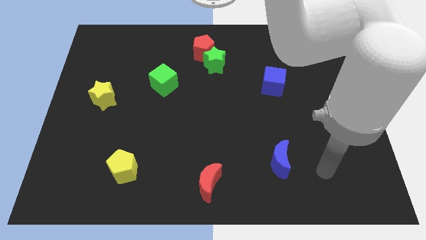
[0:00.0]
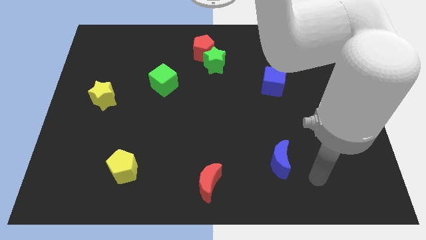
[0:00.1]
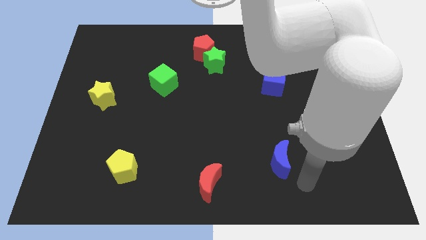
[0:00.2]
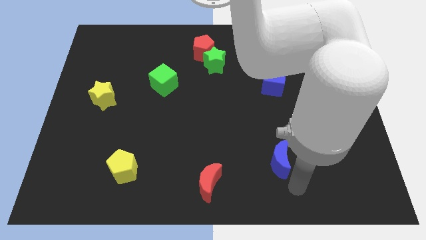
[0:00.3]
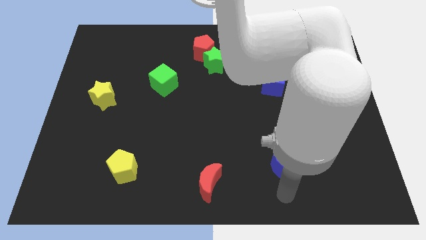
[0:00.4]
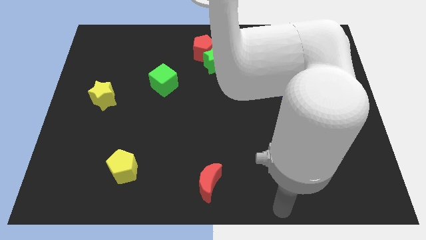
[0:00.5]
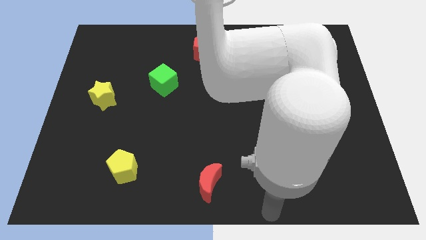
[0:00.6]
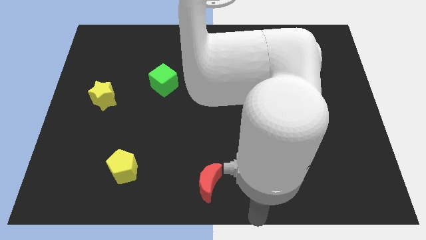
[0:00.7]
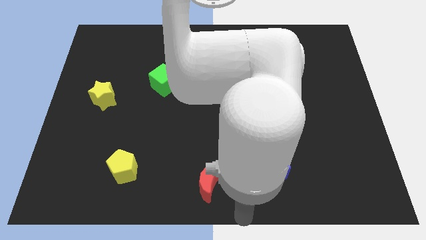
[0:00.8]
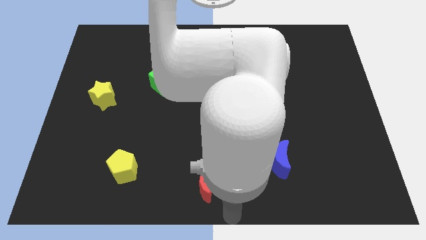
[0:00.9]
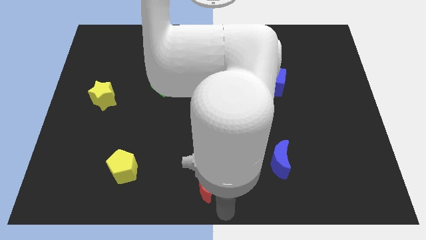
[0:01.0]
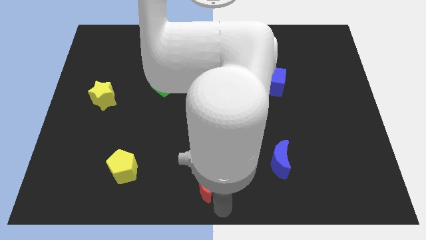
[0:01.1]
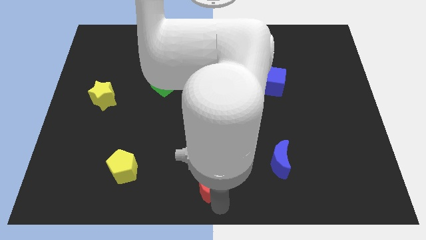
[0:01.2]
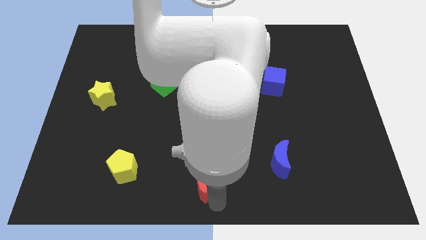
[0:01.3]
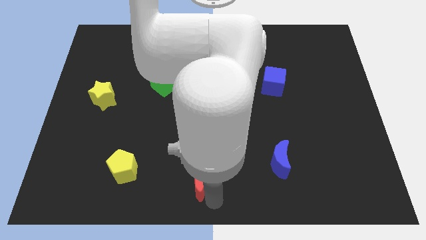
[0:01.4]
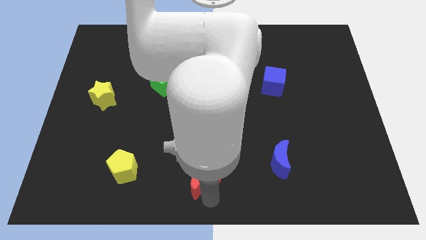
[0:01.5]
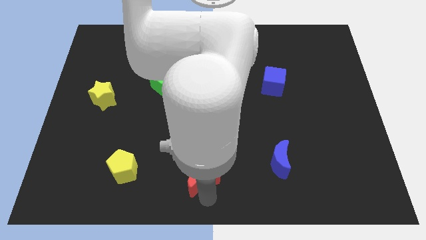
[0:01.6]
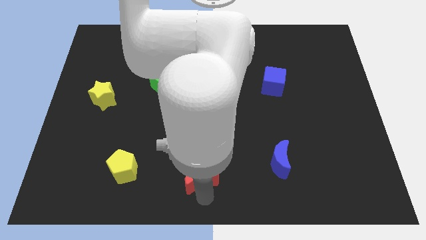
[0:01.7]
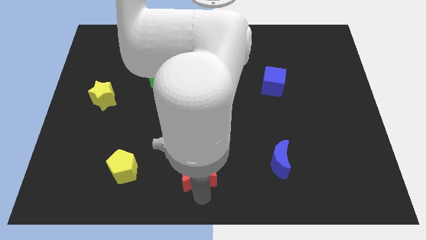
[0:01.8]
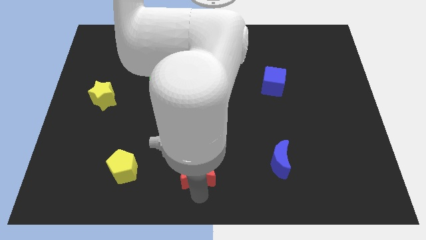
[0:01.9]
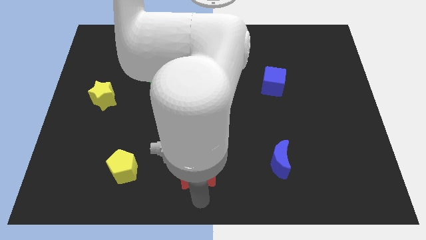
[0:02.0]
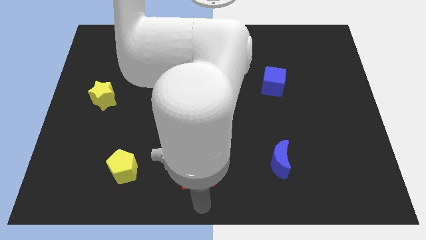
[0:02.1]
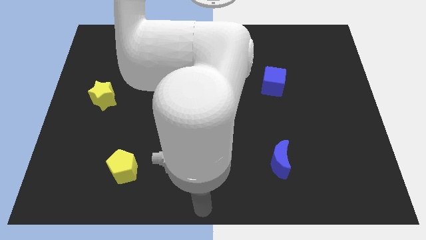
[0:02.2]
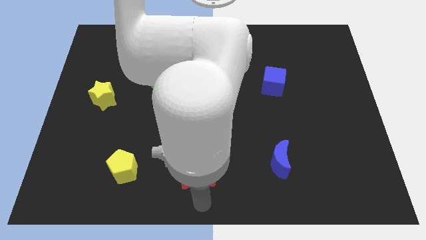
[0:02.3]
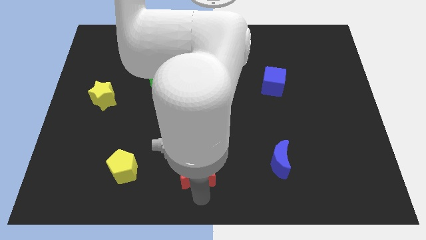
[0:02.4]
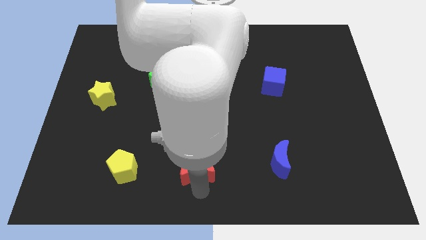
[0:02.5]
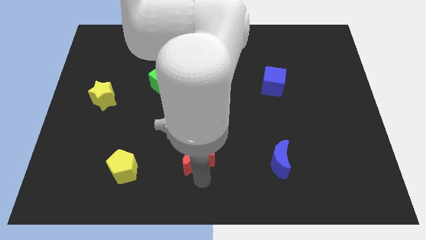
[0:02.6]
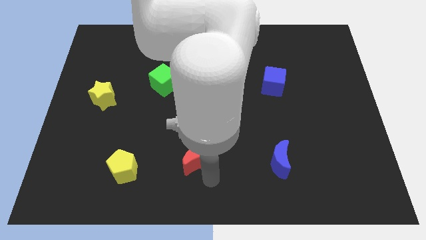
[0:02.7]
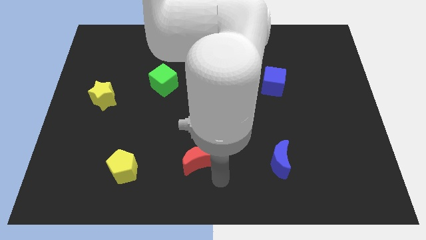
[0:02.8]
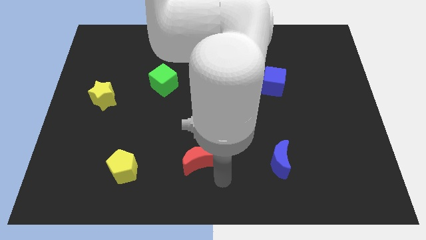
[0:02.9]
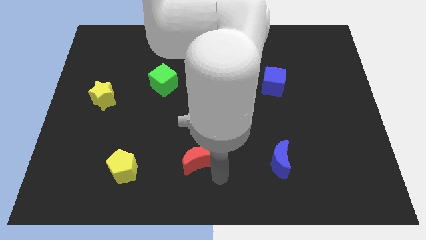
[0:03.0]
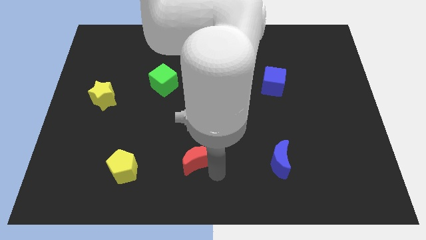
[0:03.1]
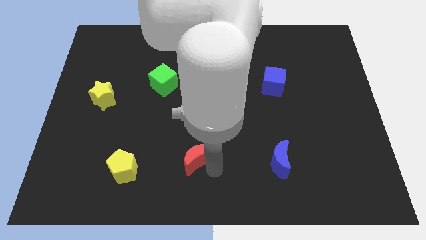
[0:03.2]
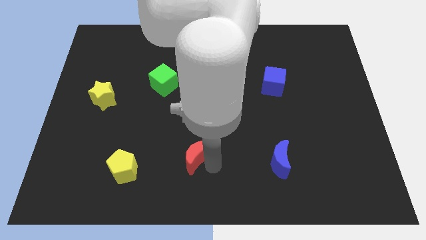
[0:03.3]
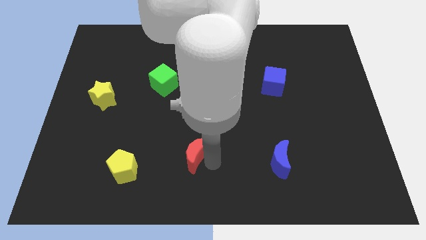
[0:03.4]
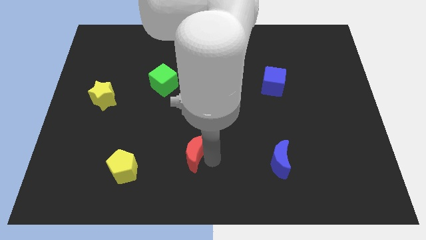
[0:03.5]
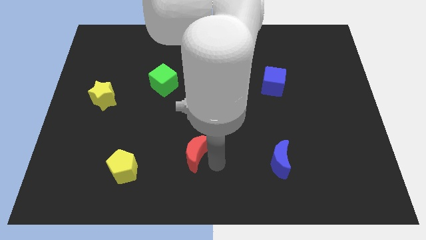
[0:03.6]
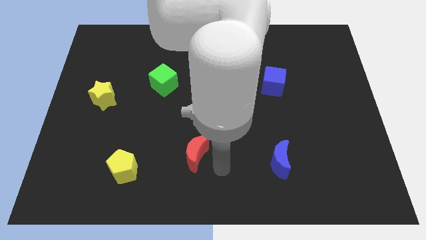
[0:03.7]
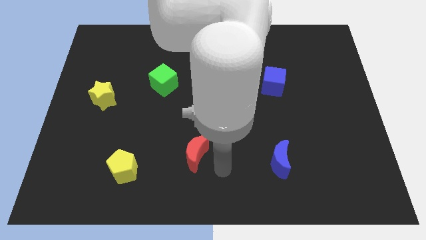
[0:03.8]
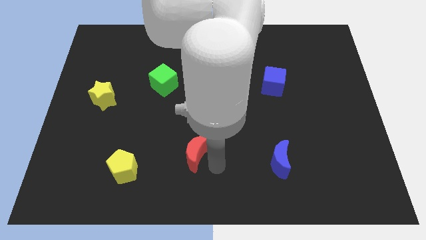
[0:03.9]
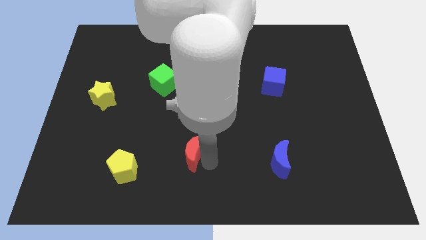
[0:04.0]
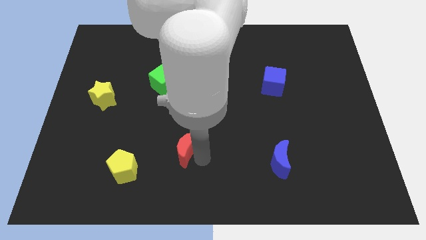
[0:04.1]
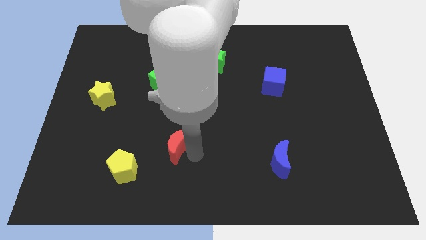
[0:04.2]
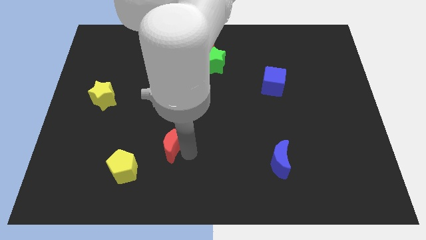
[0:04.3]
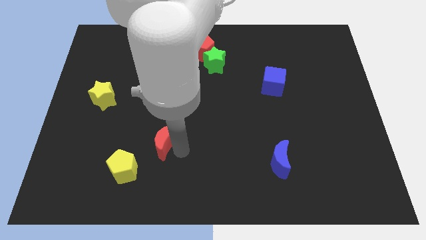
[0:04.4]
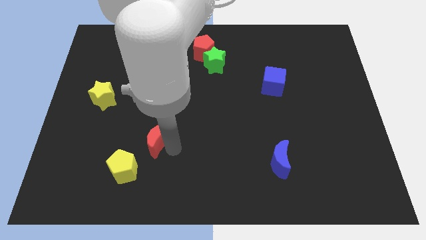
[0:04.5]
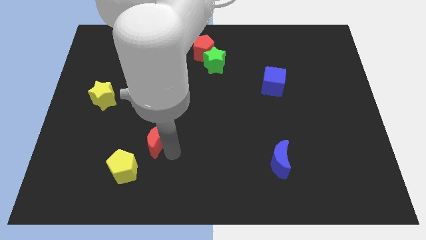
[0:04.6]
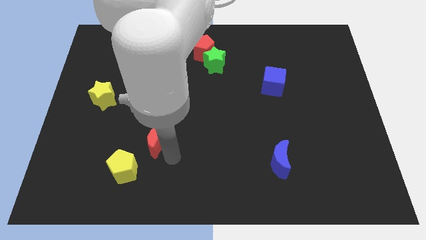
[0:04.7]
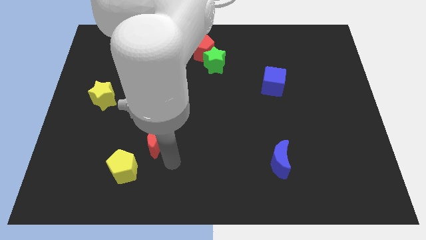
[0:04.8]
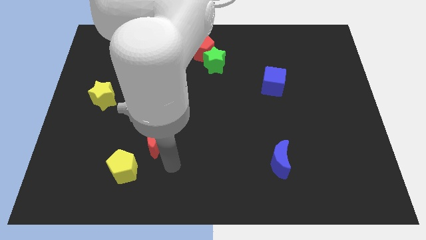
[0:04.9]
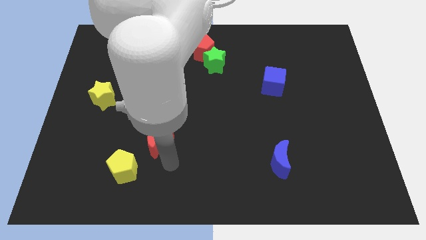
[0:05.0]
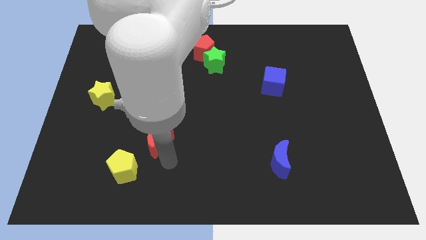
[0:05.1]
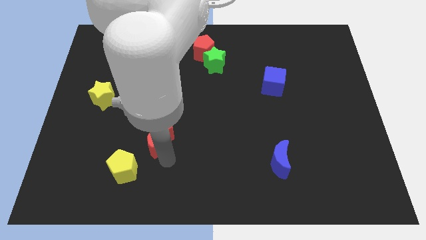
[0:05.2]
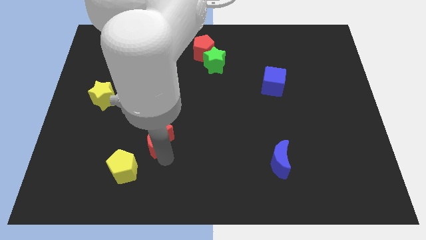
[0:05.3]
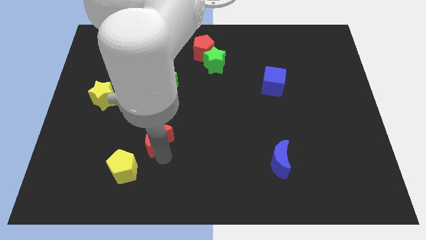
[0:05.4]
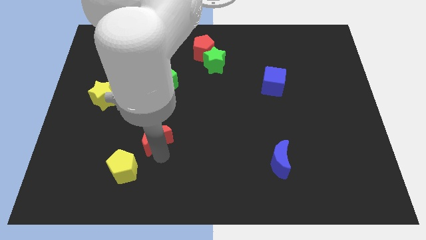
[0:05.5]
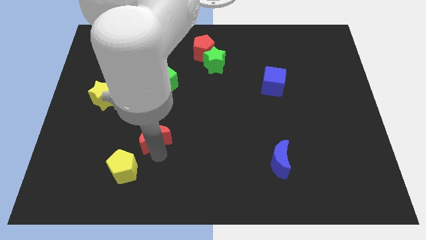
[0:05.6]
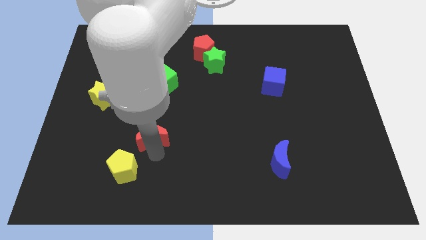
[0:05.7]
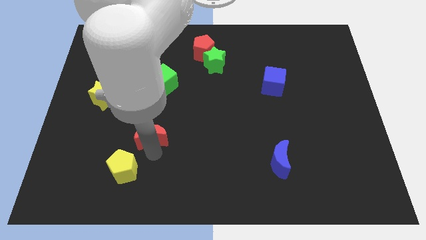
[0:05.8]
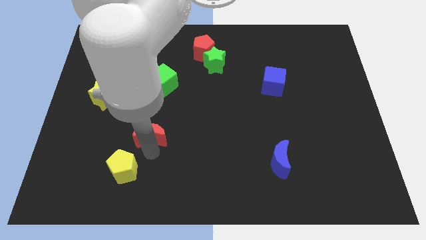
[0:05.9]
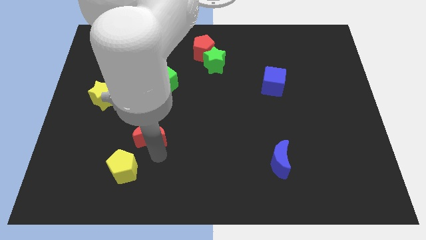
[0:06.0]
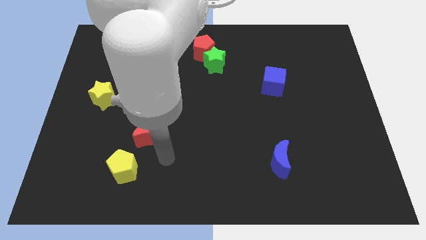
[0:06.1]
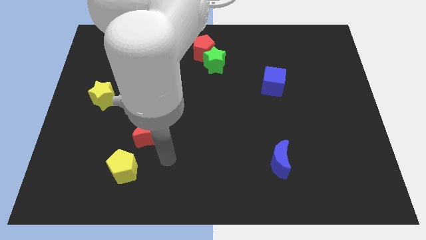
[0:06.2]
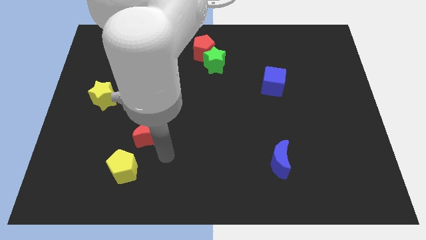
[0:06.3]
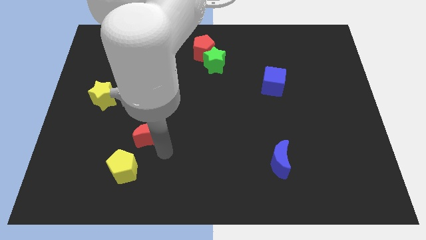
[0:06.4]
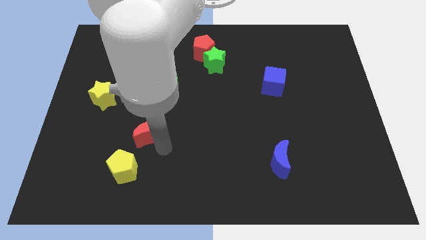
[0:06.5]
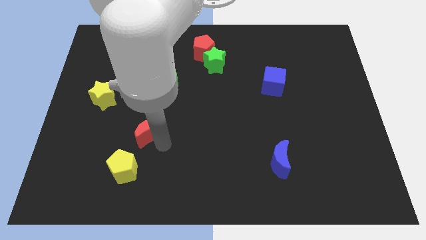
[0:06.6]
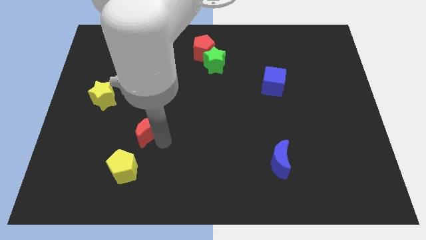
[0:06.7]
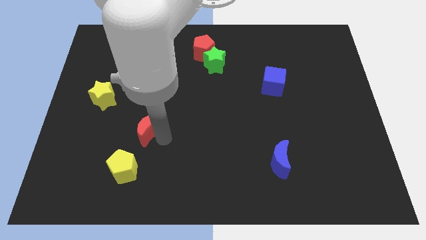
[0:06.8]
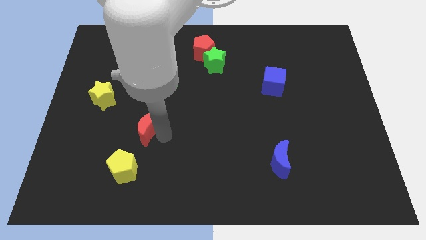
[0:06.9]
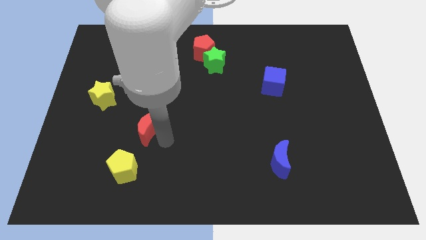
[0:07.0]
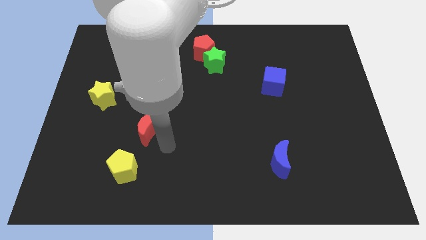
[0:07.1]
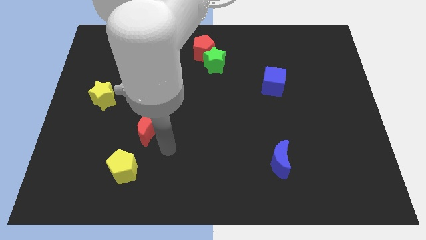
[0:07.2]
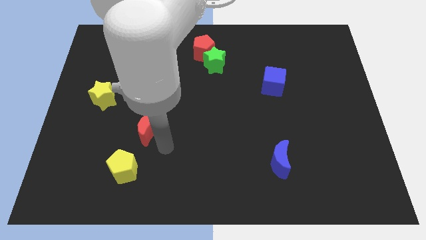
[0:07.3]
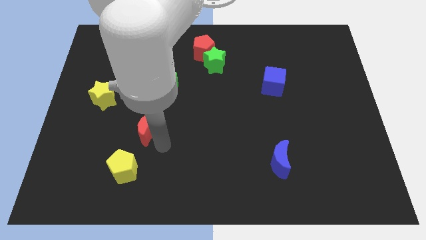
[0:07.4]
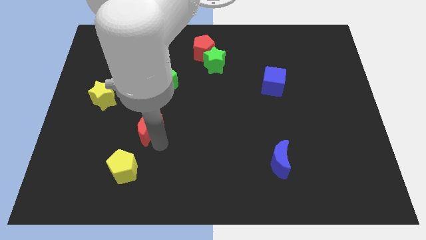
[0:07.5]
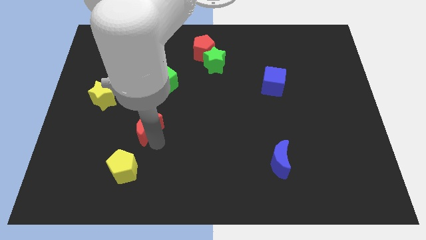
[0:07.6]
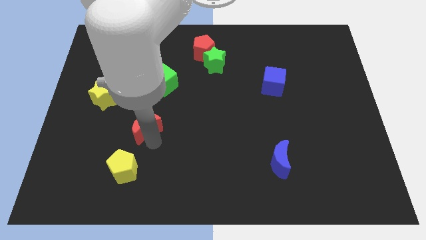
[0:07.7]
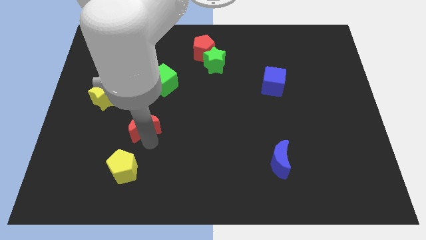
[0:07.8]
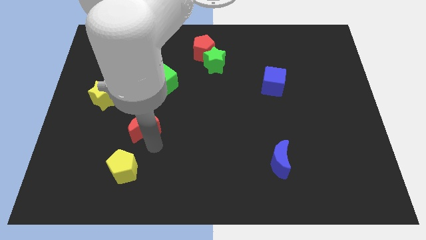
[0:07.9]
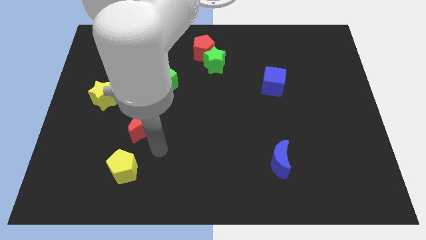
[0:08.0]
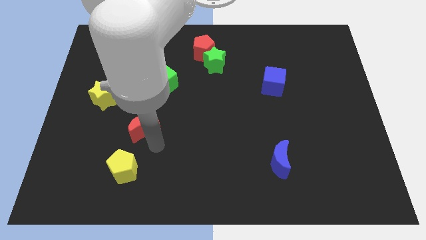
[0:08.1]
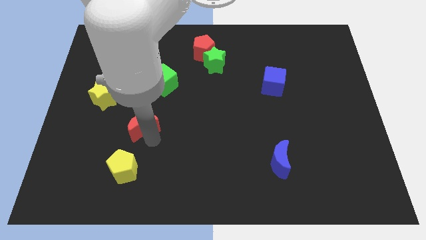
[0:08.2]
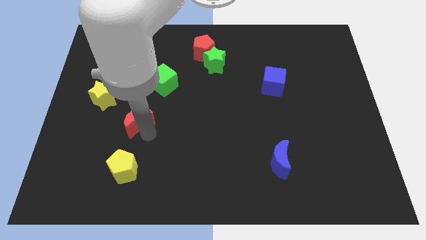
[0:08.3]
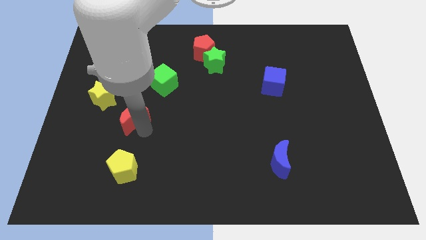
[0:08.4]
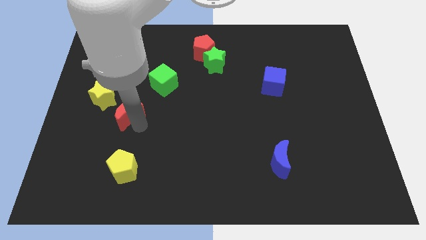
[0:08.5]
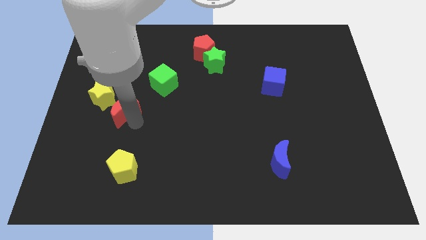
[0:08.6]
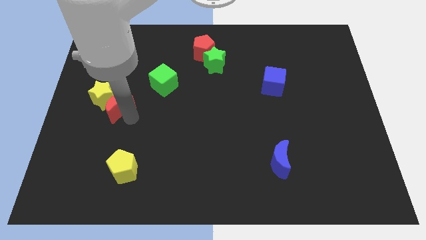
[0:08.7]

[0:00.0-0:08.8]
put the red moon to the yellow star
